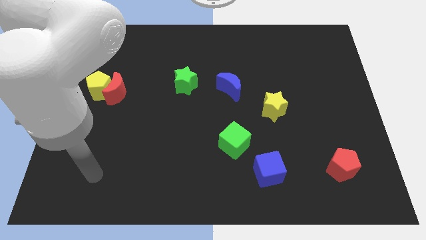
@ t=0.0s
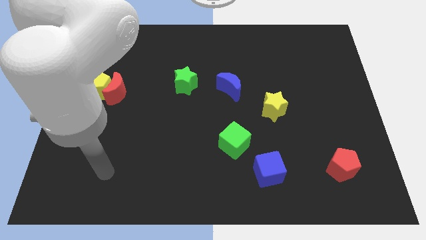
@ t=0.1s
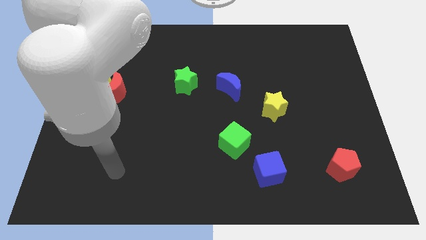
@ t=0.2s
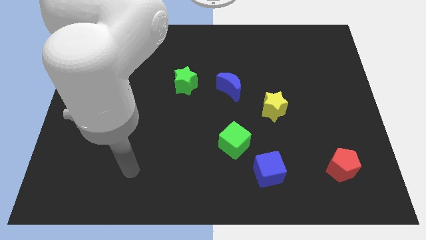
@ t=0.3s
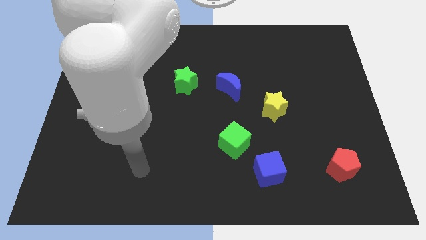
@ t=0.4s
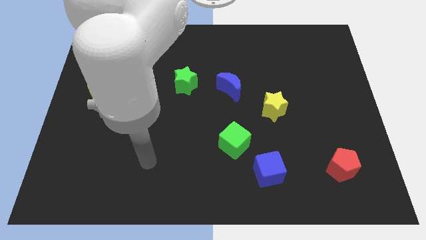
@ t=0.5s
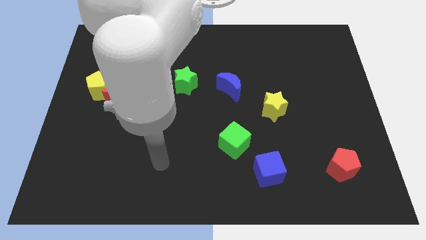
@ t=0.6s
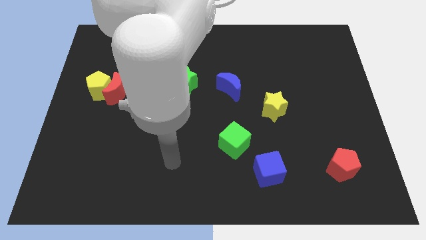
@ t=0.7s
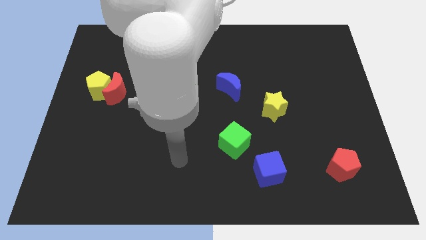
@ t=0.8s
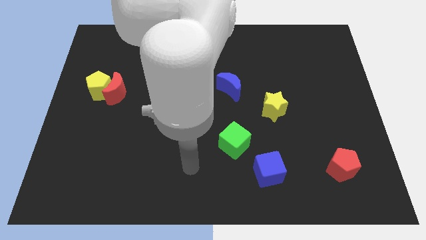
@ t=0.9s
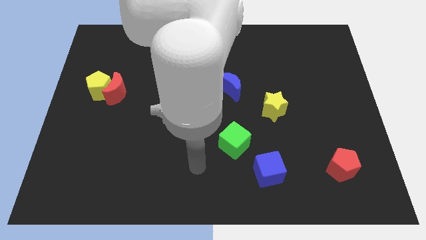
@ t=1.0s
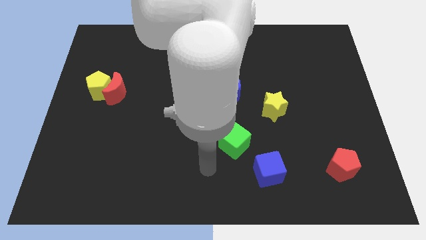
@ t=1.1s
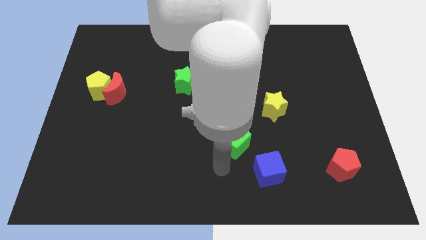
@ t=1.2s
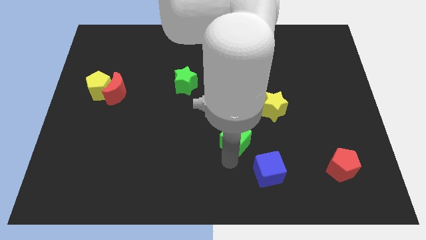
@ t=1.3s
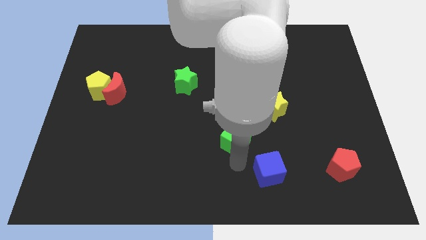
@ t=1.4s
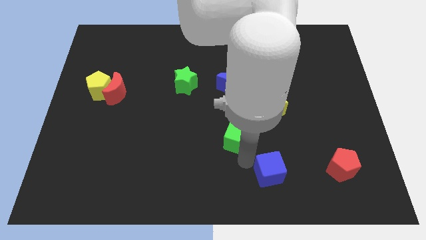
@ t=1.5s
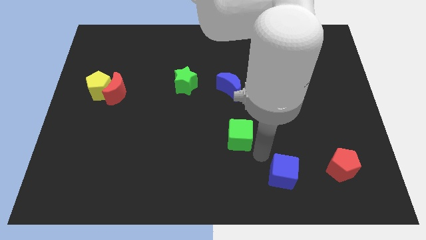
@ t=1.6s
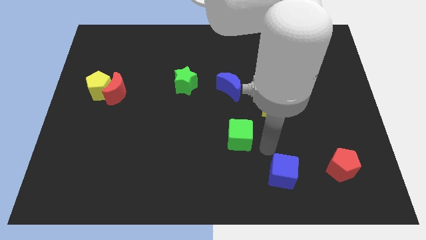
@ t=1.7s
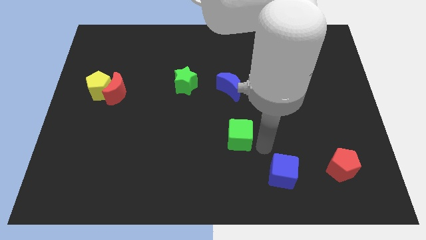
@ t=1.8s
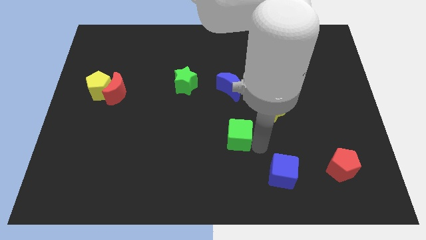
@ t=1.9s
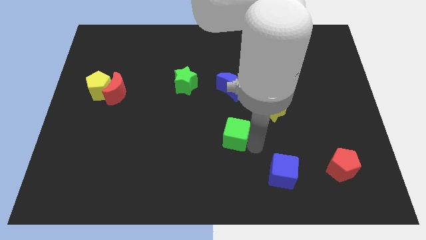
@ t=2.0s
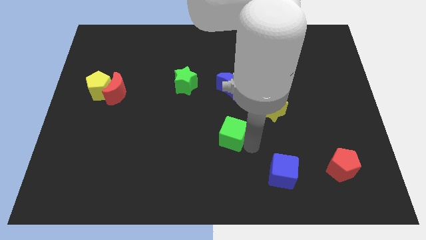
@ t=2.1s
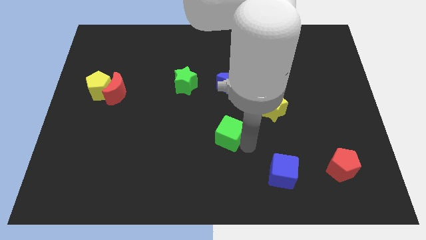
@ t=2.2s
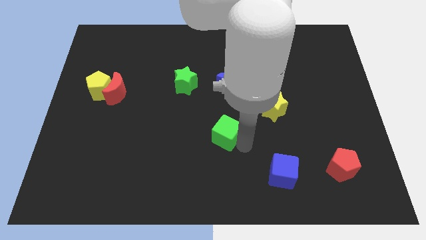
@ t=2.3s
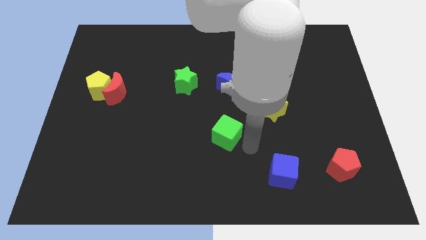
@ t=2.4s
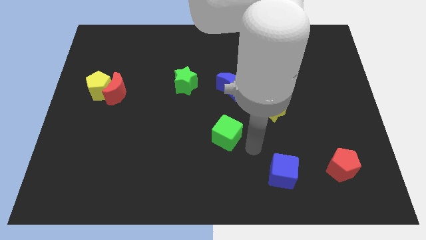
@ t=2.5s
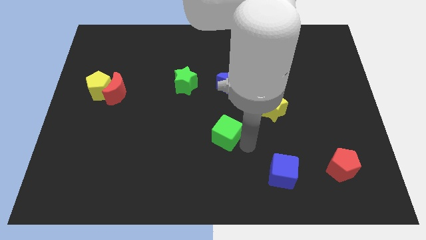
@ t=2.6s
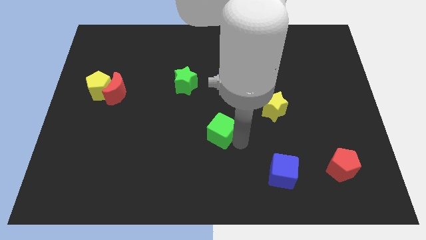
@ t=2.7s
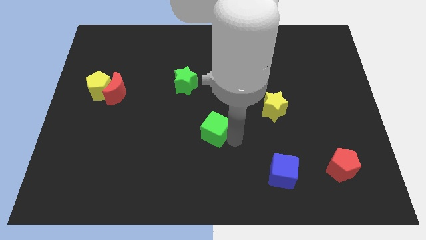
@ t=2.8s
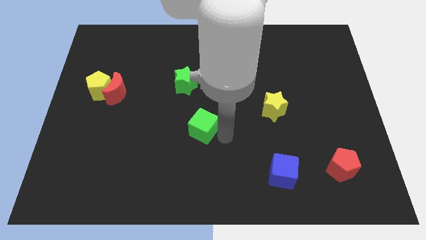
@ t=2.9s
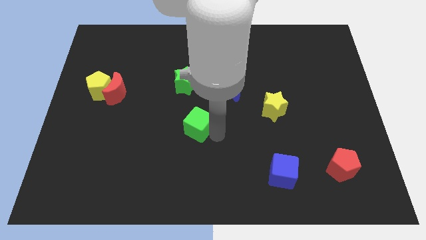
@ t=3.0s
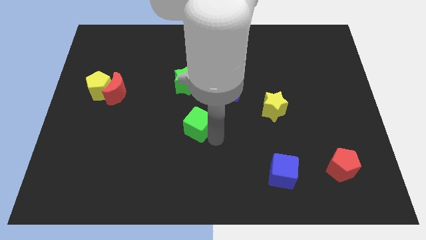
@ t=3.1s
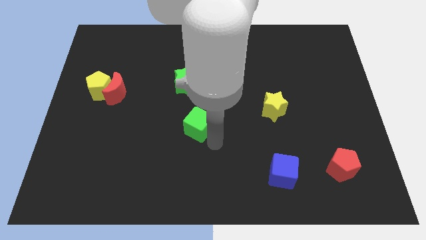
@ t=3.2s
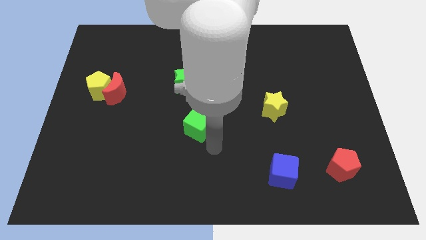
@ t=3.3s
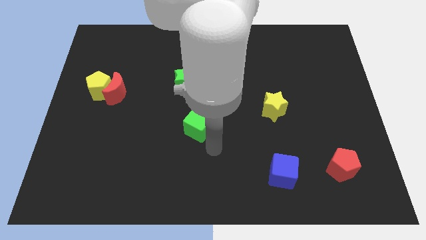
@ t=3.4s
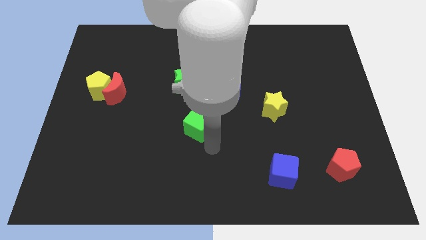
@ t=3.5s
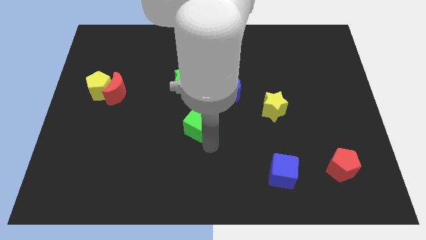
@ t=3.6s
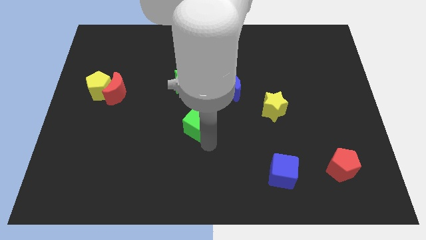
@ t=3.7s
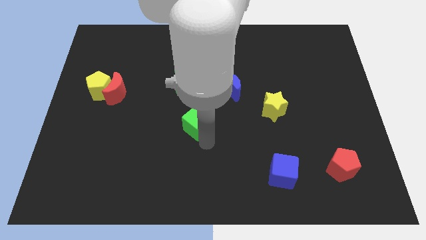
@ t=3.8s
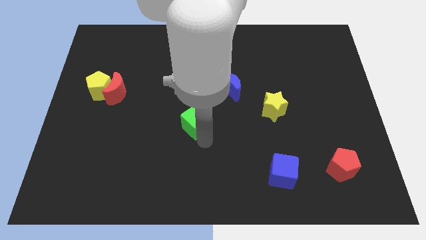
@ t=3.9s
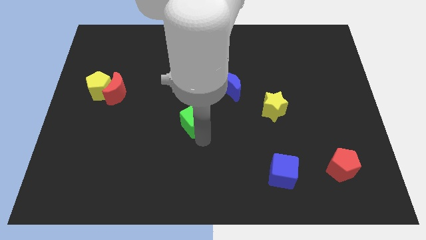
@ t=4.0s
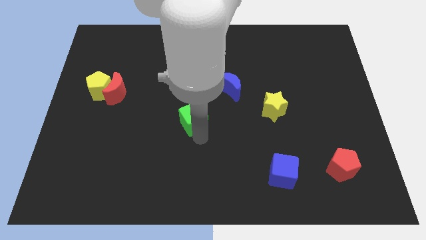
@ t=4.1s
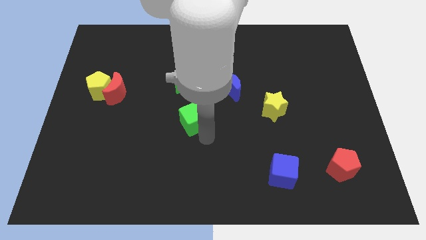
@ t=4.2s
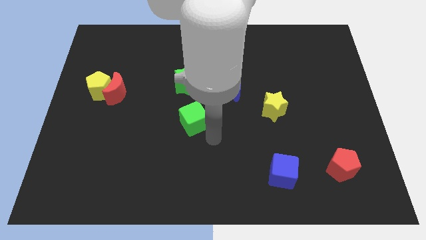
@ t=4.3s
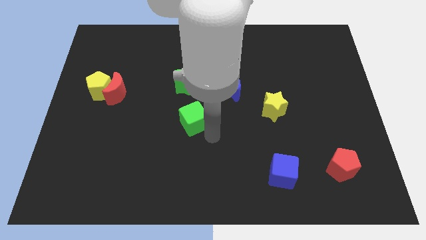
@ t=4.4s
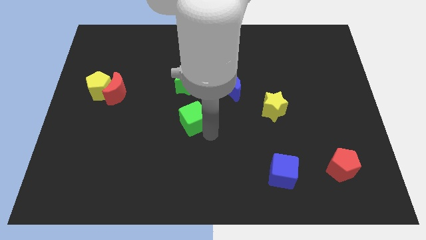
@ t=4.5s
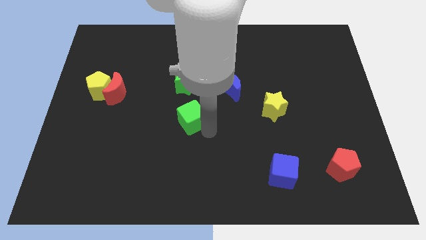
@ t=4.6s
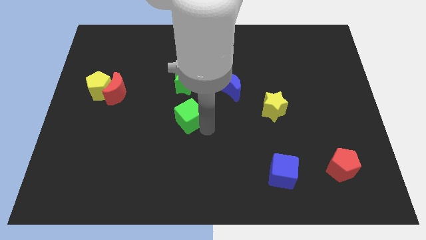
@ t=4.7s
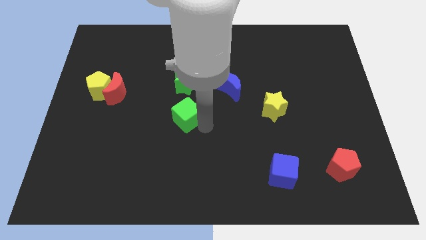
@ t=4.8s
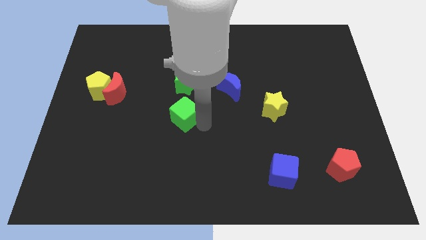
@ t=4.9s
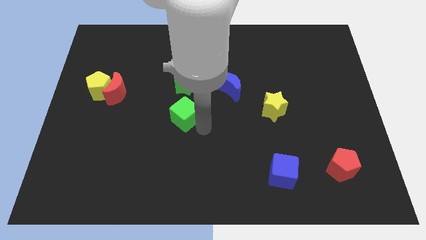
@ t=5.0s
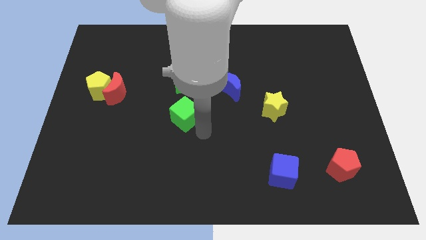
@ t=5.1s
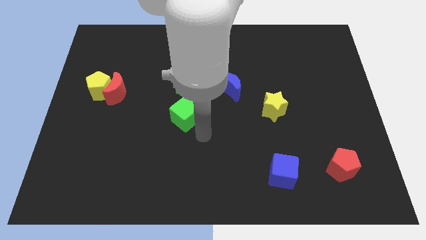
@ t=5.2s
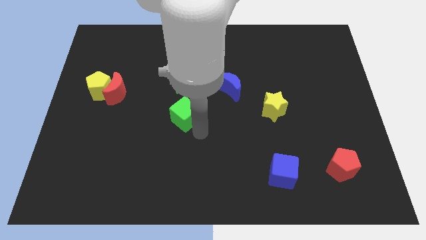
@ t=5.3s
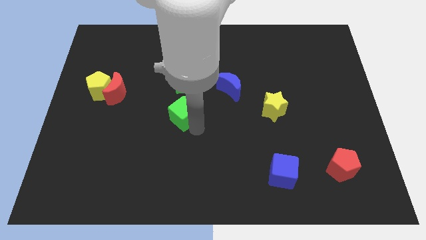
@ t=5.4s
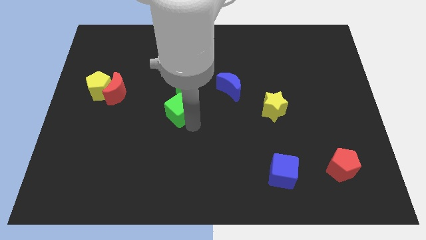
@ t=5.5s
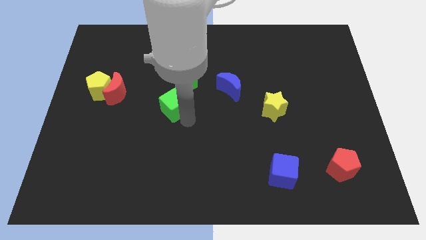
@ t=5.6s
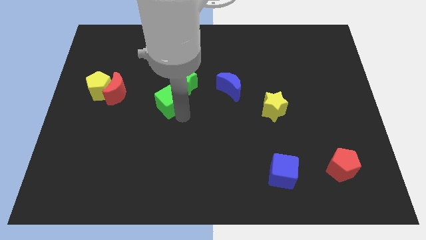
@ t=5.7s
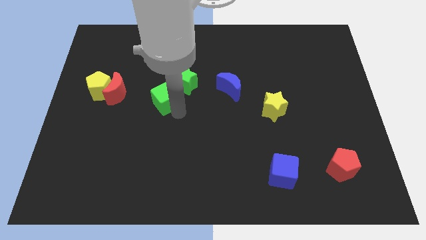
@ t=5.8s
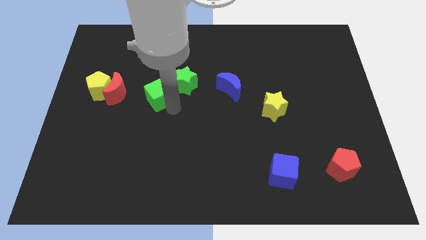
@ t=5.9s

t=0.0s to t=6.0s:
move the green cube diagonally up and left

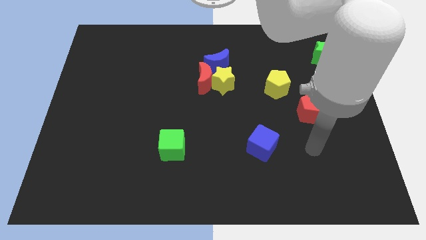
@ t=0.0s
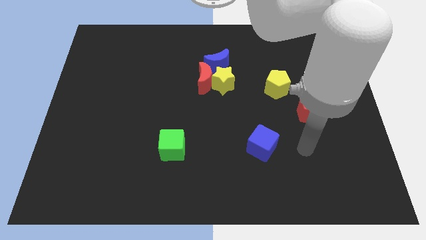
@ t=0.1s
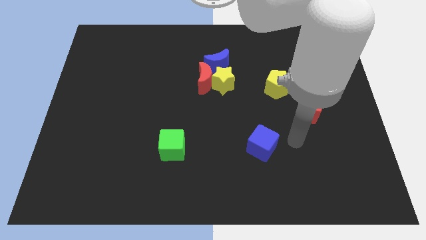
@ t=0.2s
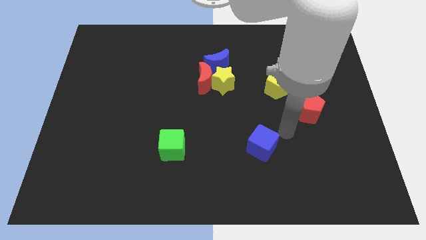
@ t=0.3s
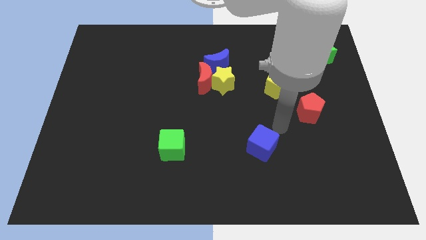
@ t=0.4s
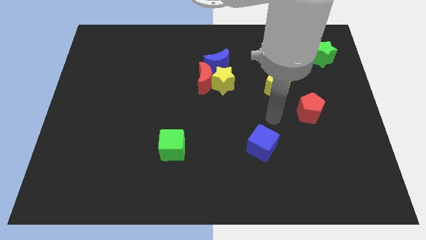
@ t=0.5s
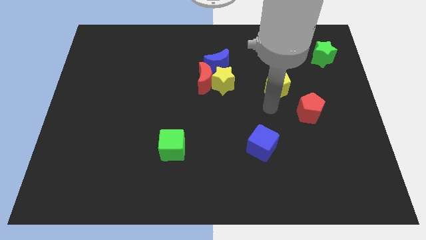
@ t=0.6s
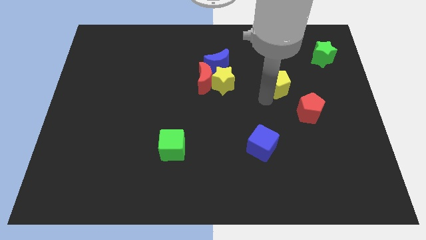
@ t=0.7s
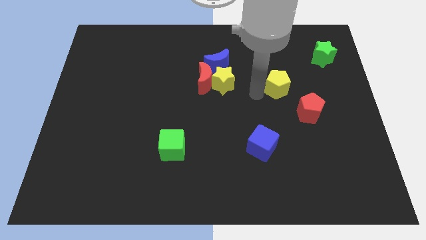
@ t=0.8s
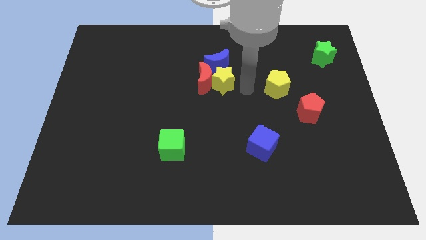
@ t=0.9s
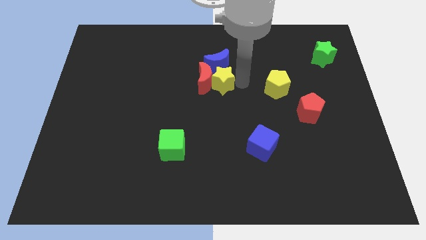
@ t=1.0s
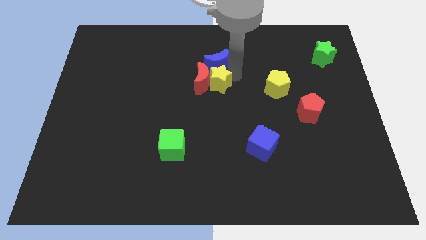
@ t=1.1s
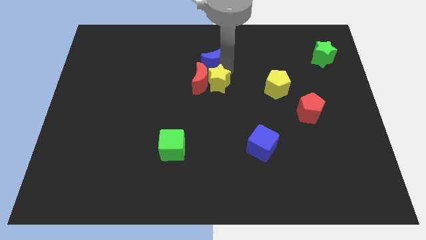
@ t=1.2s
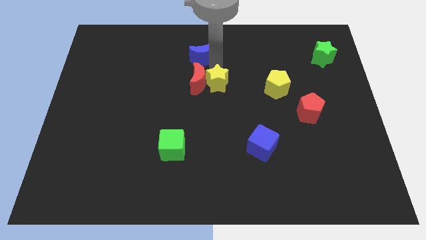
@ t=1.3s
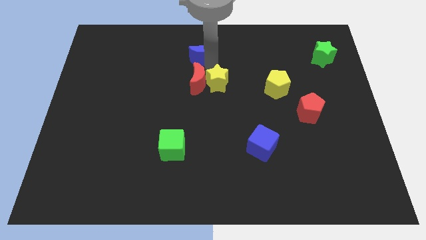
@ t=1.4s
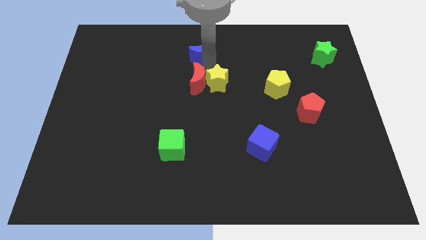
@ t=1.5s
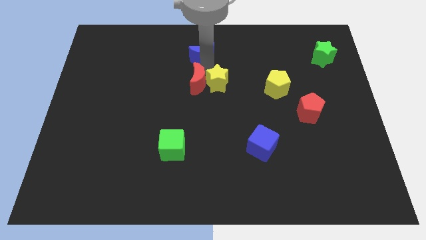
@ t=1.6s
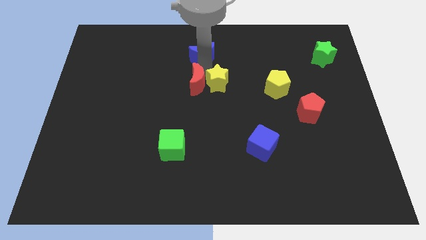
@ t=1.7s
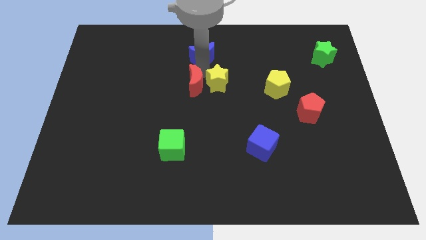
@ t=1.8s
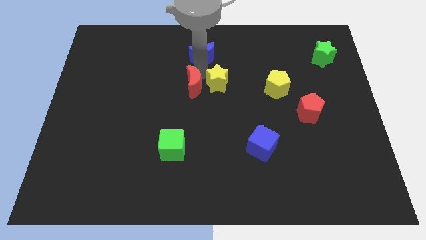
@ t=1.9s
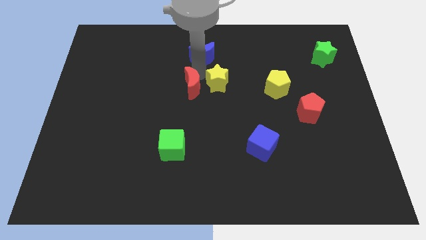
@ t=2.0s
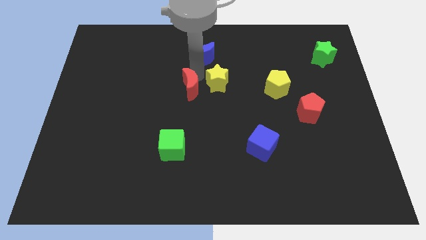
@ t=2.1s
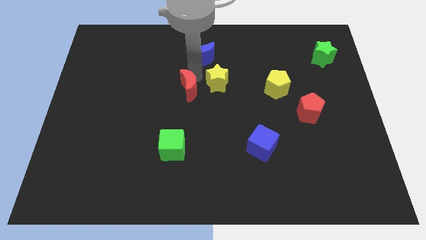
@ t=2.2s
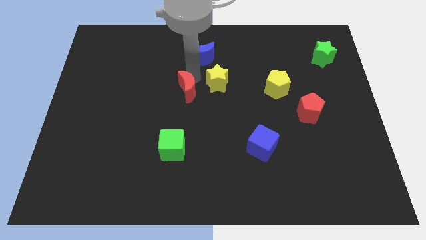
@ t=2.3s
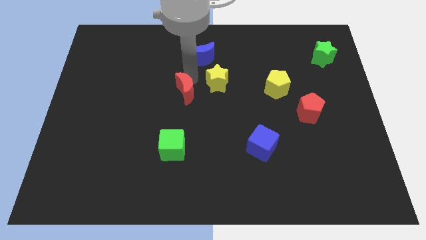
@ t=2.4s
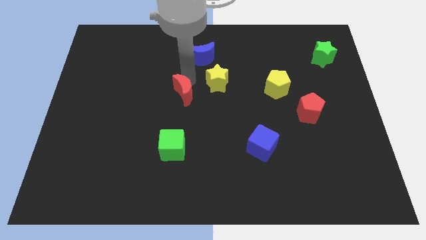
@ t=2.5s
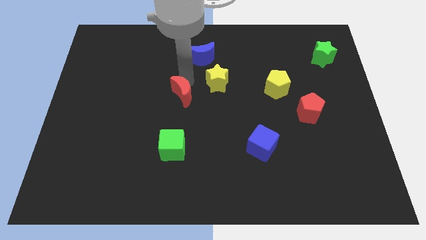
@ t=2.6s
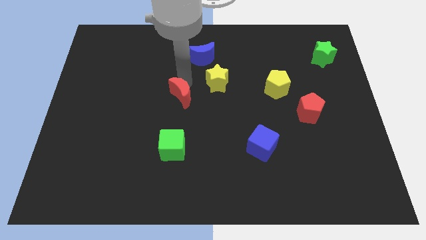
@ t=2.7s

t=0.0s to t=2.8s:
push the red moon a little diagonally downwards and left
